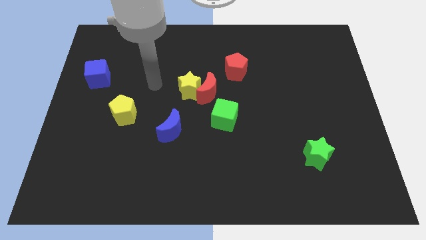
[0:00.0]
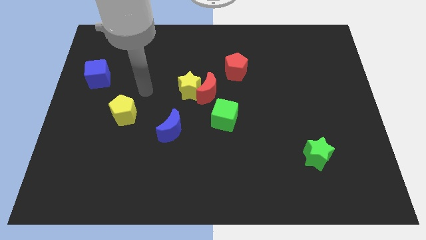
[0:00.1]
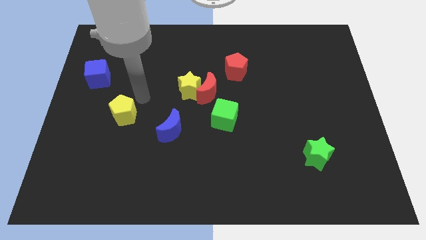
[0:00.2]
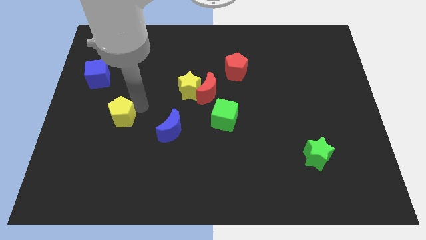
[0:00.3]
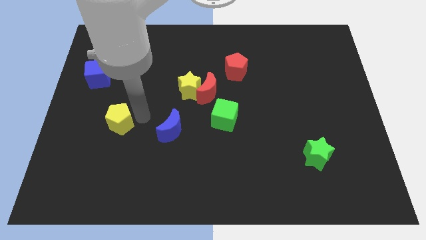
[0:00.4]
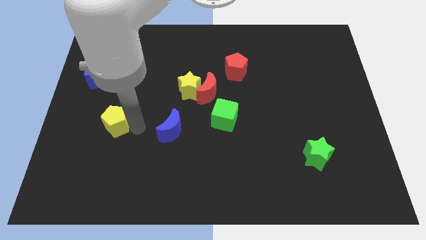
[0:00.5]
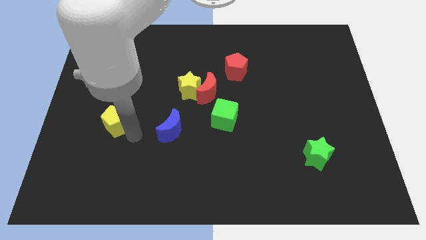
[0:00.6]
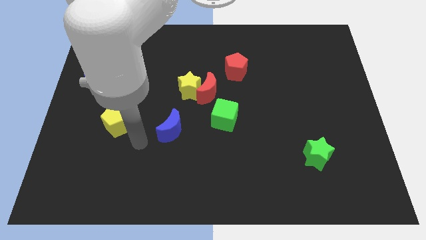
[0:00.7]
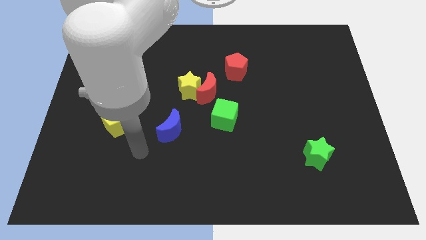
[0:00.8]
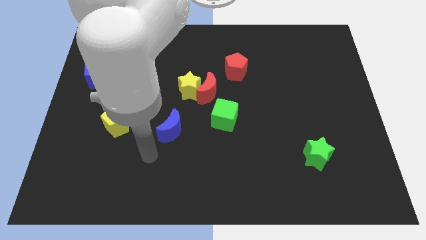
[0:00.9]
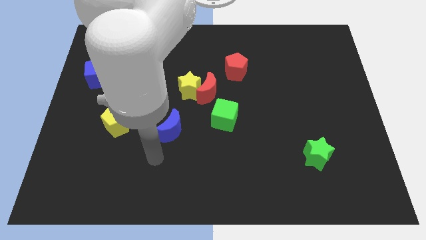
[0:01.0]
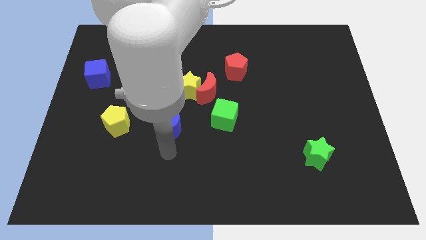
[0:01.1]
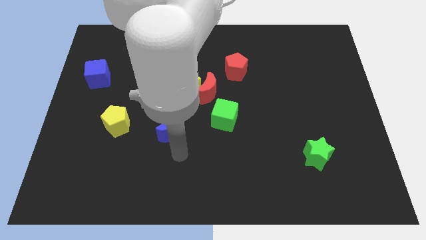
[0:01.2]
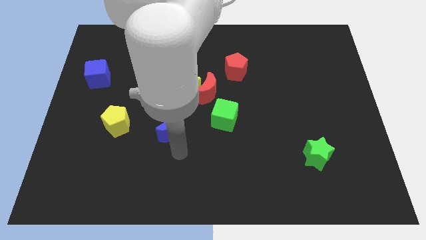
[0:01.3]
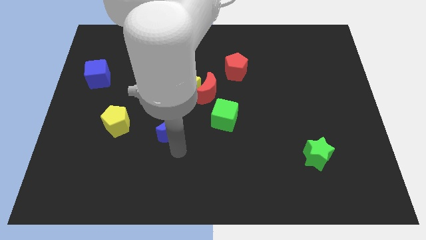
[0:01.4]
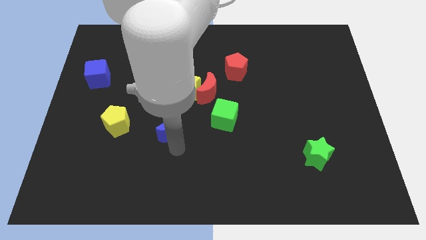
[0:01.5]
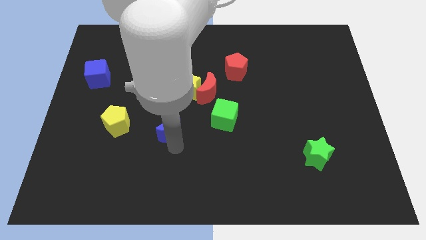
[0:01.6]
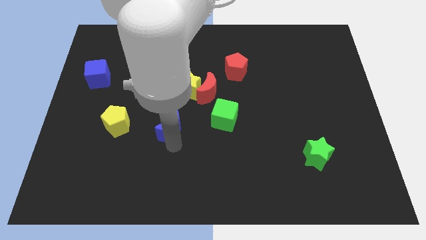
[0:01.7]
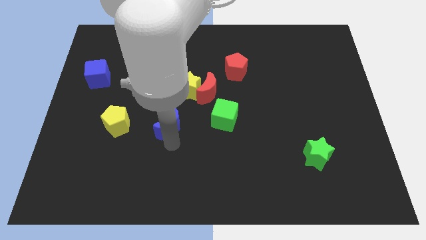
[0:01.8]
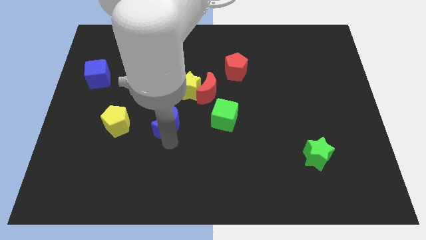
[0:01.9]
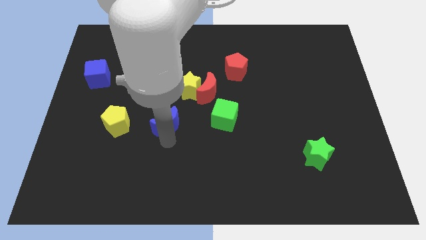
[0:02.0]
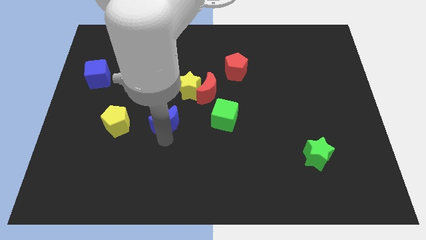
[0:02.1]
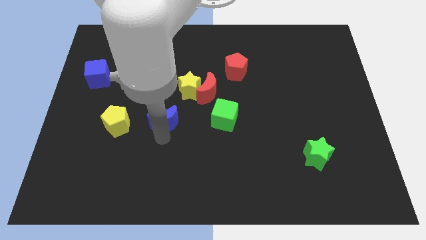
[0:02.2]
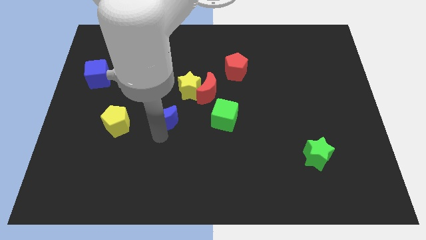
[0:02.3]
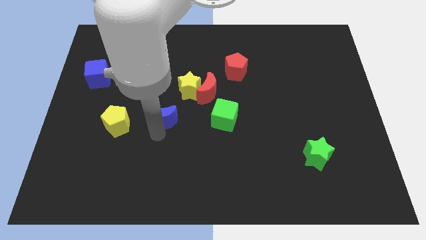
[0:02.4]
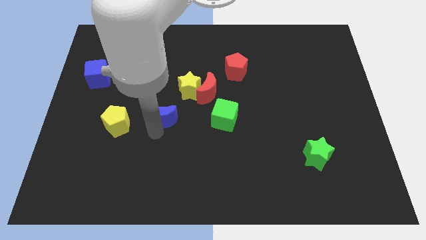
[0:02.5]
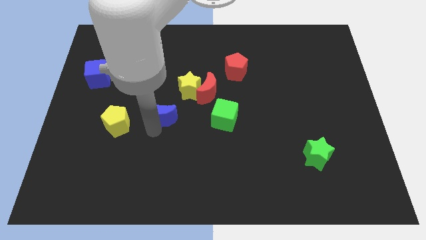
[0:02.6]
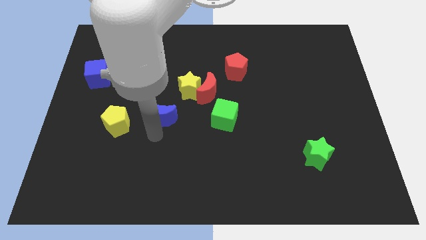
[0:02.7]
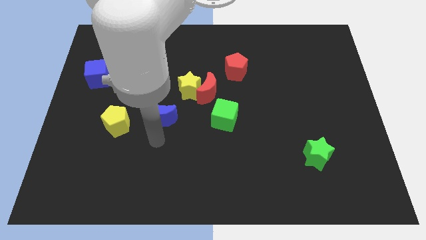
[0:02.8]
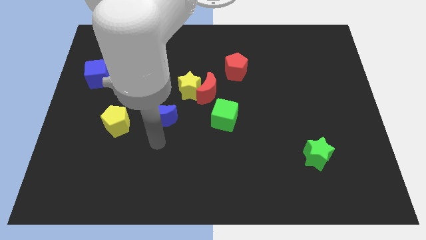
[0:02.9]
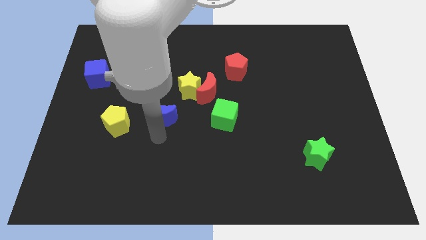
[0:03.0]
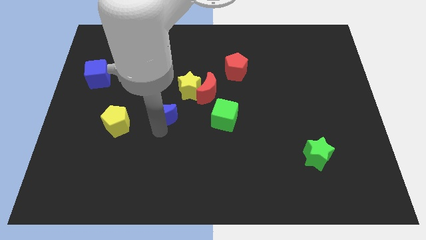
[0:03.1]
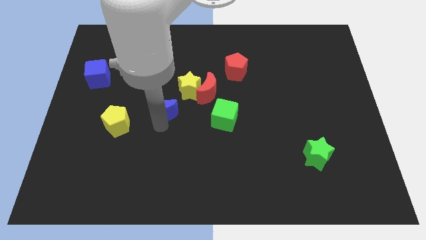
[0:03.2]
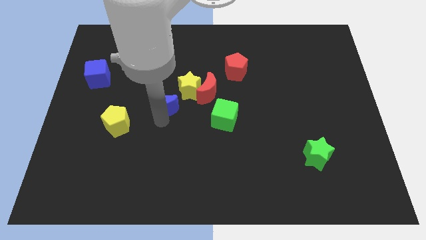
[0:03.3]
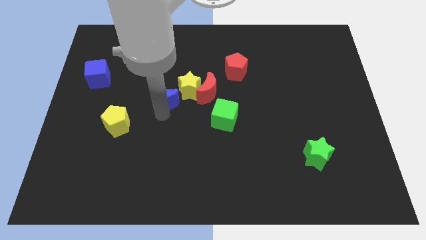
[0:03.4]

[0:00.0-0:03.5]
move the blue moon upwards a little bit

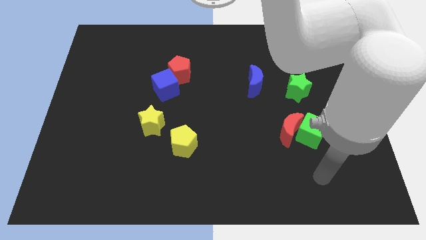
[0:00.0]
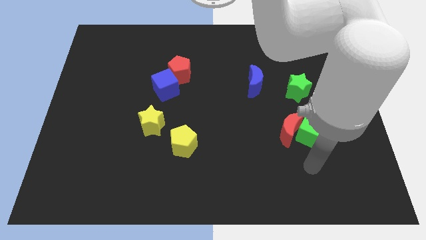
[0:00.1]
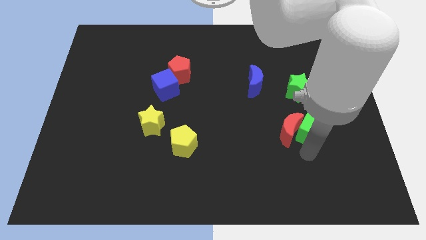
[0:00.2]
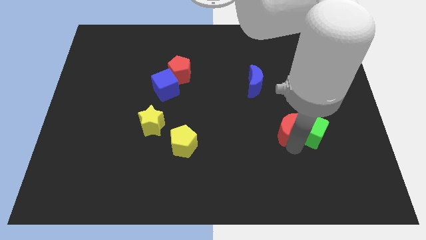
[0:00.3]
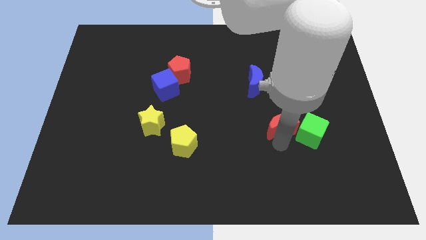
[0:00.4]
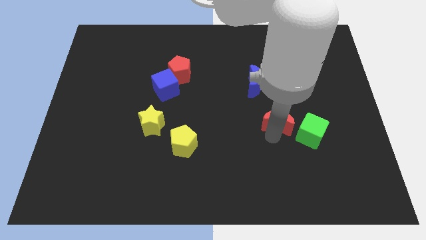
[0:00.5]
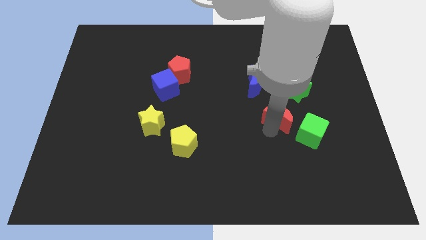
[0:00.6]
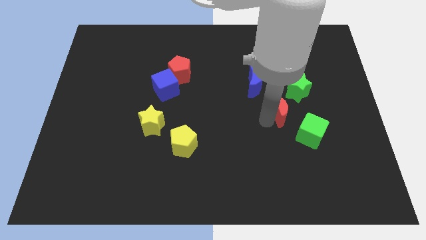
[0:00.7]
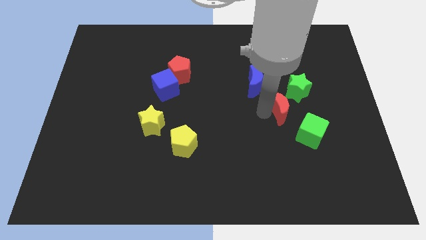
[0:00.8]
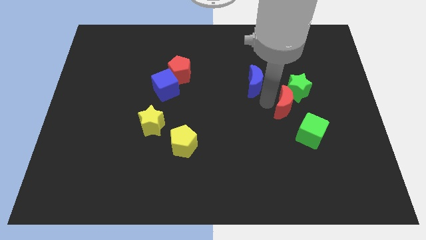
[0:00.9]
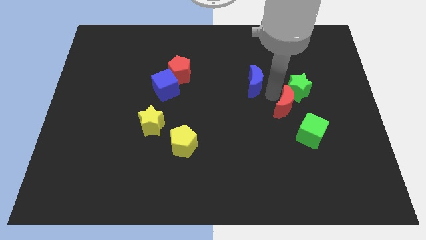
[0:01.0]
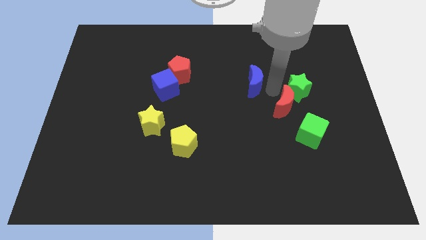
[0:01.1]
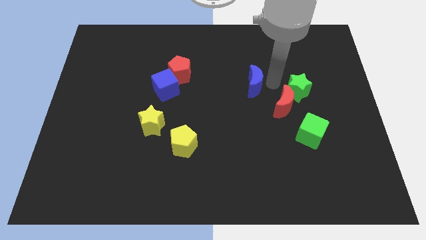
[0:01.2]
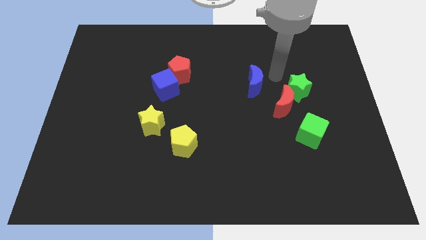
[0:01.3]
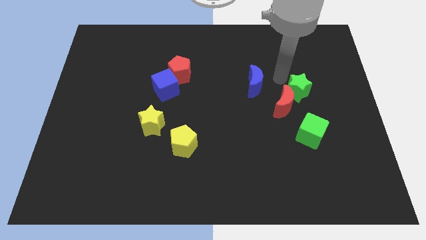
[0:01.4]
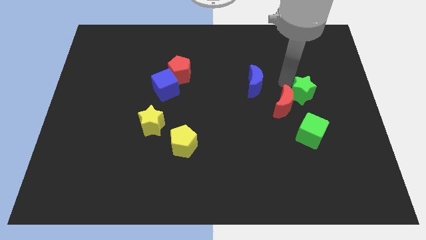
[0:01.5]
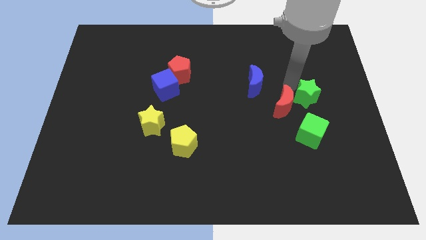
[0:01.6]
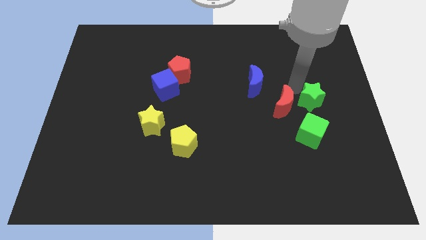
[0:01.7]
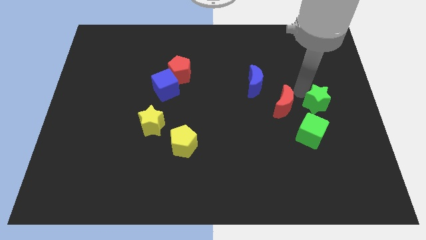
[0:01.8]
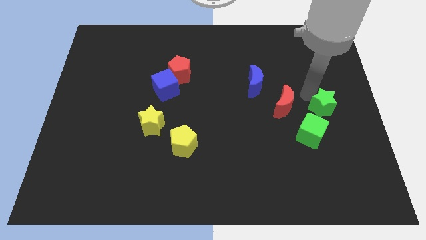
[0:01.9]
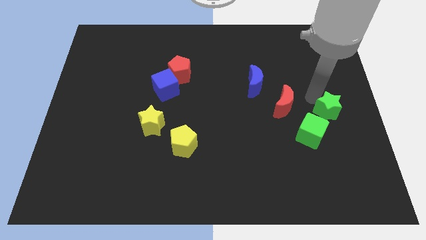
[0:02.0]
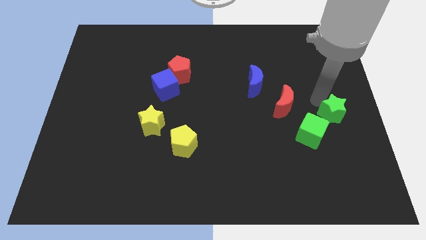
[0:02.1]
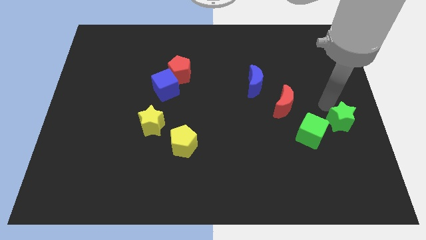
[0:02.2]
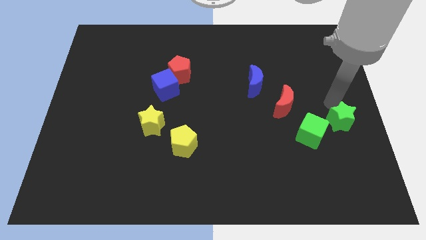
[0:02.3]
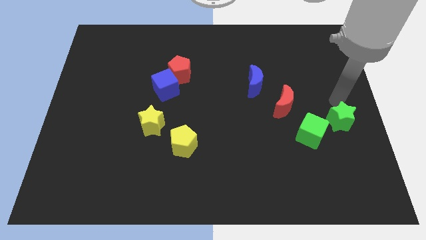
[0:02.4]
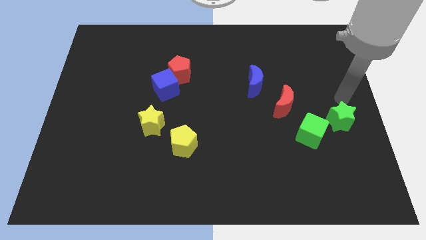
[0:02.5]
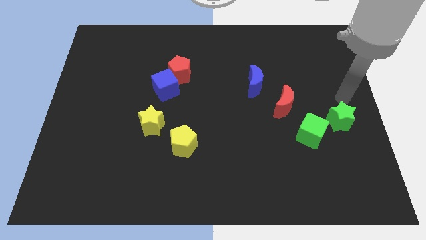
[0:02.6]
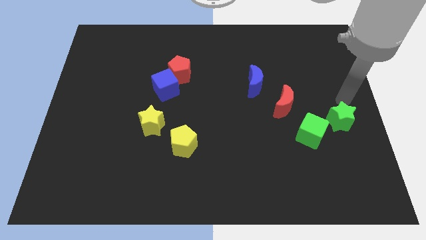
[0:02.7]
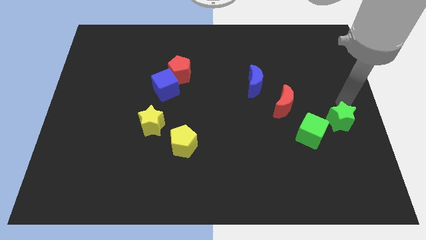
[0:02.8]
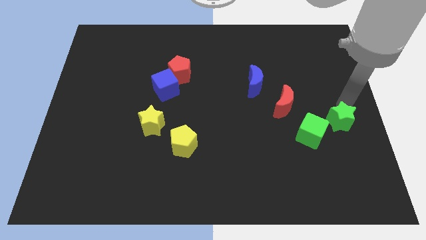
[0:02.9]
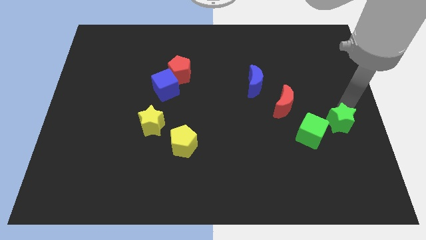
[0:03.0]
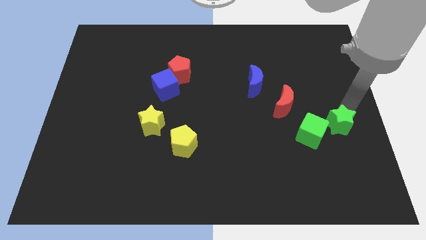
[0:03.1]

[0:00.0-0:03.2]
slide the green star downwards somewhat

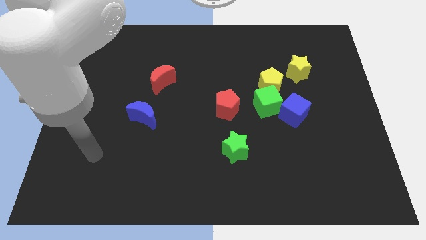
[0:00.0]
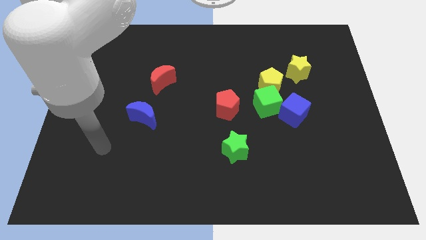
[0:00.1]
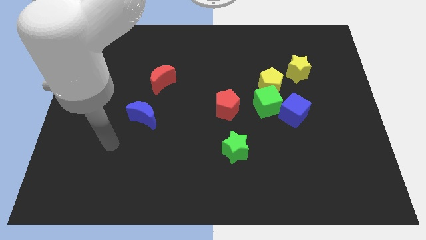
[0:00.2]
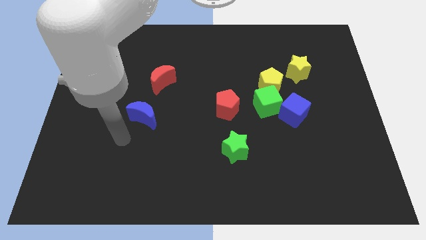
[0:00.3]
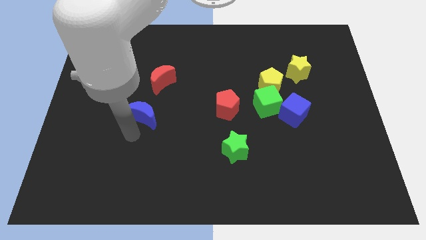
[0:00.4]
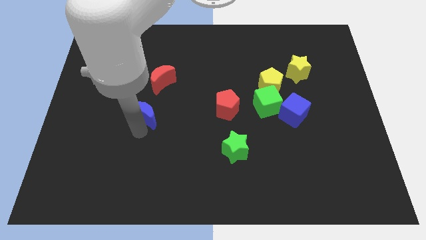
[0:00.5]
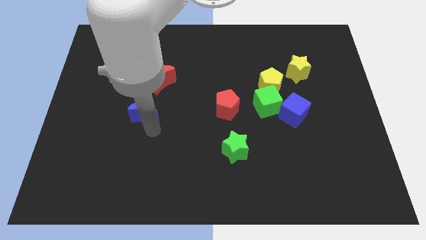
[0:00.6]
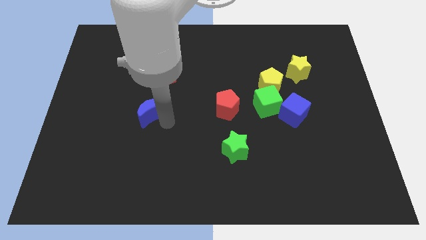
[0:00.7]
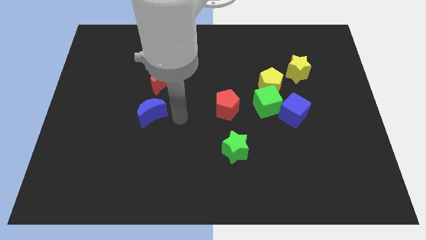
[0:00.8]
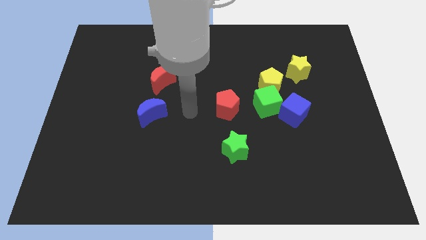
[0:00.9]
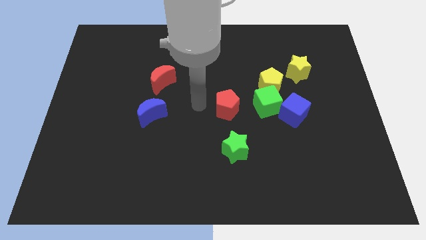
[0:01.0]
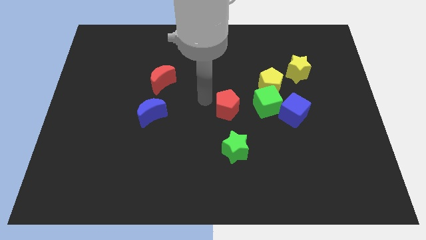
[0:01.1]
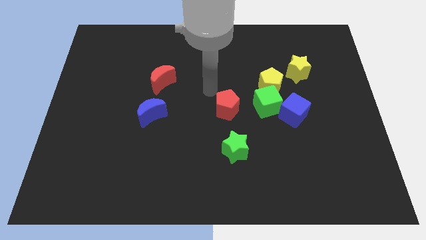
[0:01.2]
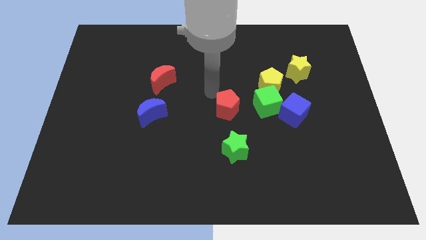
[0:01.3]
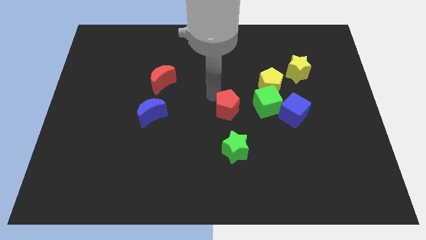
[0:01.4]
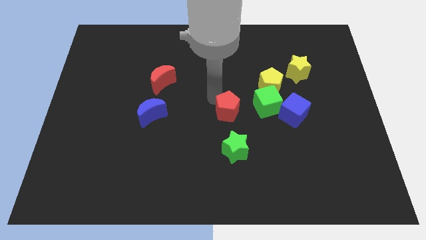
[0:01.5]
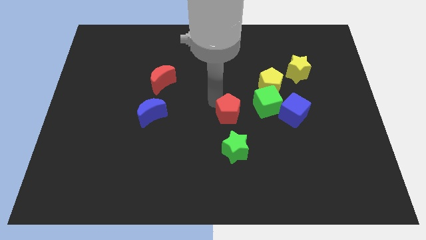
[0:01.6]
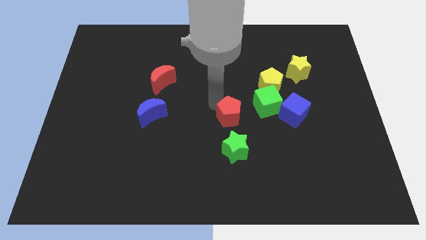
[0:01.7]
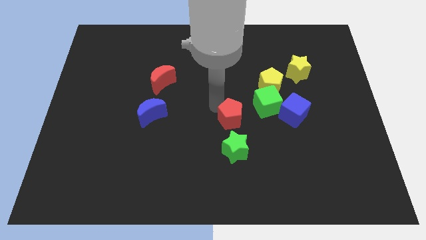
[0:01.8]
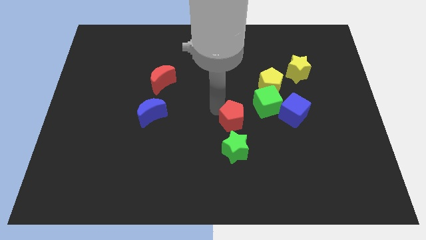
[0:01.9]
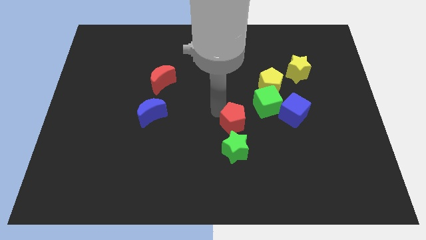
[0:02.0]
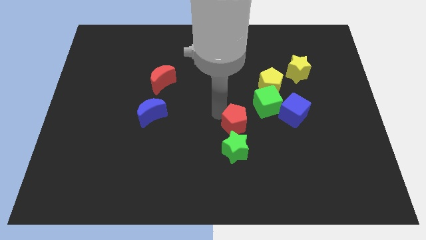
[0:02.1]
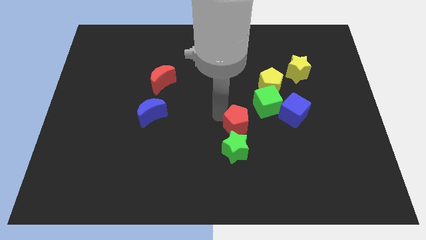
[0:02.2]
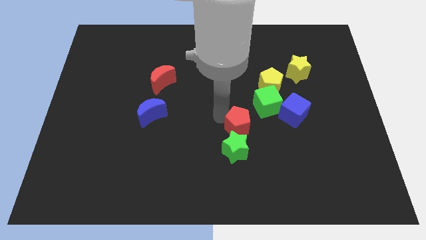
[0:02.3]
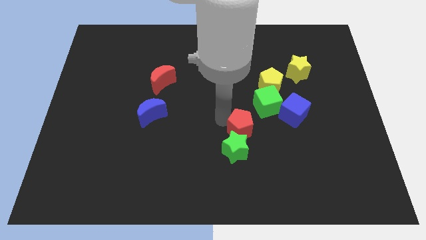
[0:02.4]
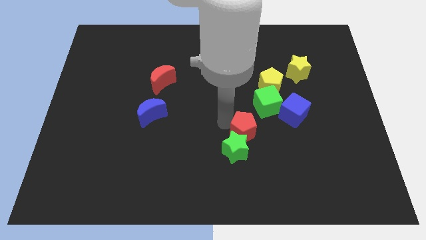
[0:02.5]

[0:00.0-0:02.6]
push the red pentagon slightly downwards and to the right diagonally
